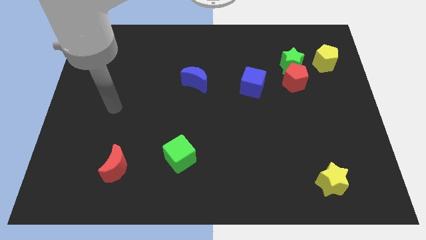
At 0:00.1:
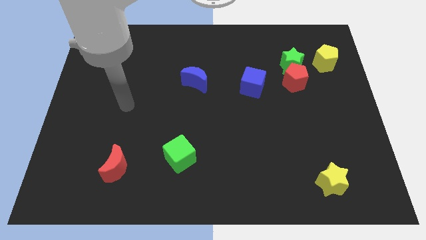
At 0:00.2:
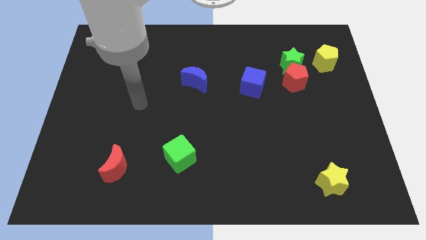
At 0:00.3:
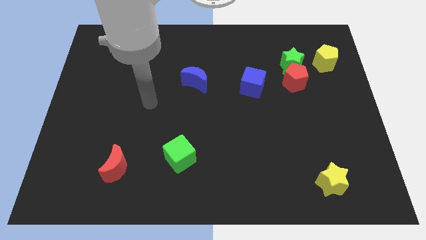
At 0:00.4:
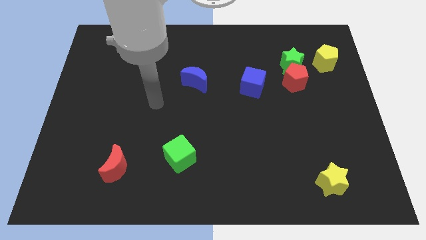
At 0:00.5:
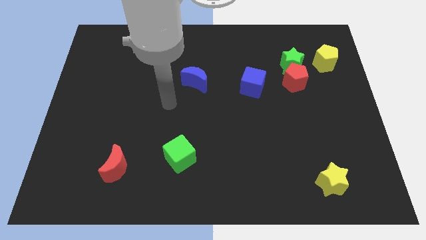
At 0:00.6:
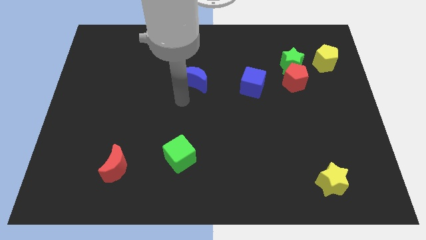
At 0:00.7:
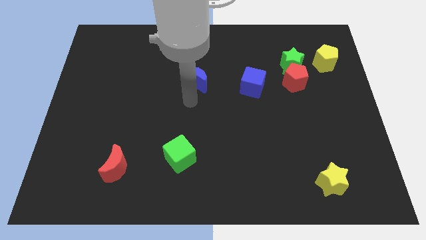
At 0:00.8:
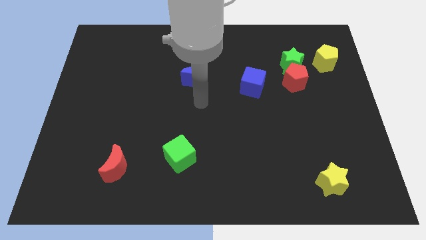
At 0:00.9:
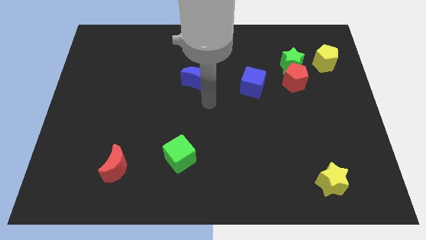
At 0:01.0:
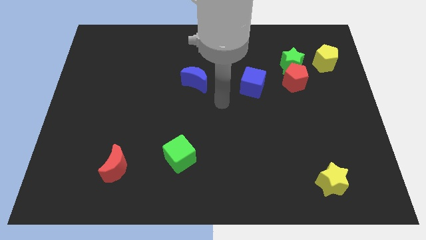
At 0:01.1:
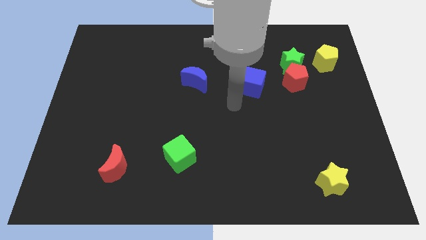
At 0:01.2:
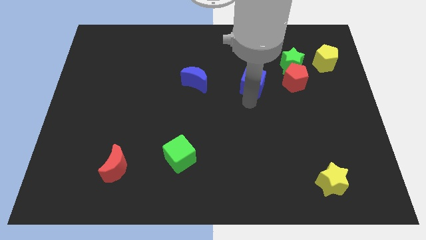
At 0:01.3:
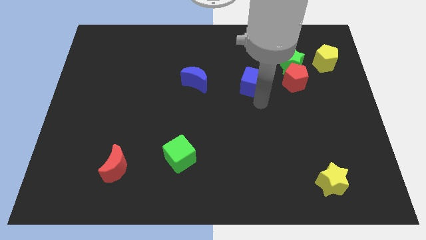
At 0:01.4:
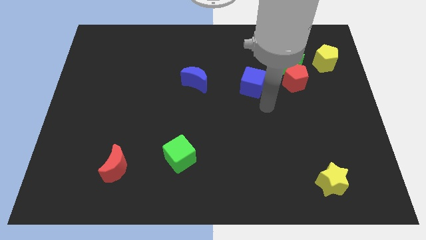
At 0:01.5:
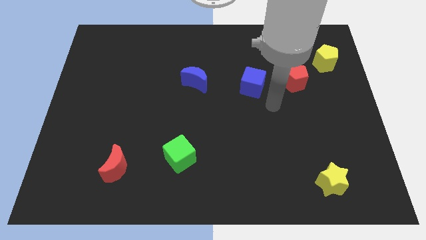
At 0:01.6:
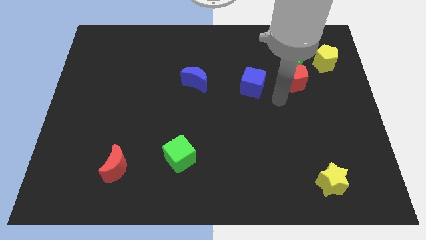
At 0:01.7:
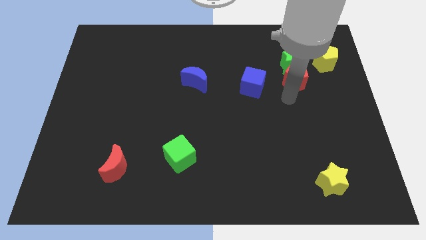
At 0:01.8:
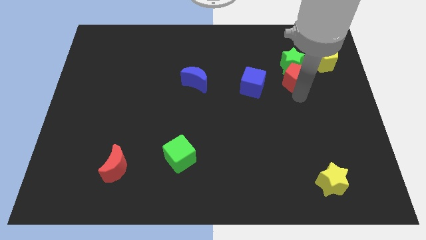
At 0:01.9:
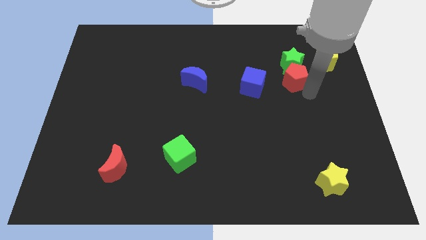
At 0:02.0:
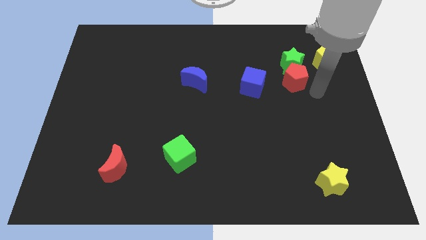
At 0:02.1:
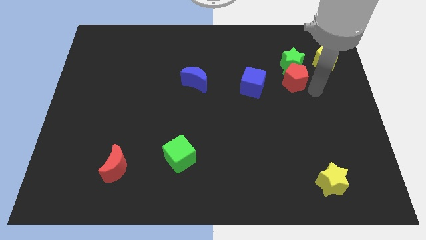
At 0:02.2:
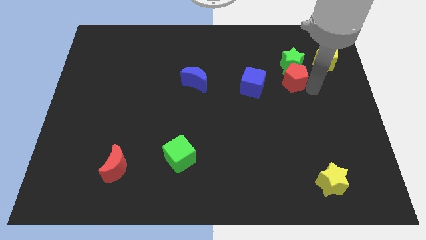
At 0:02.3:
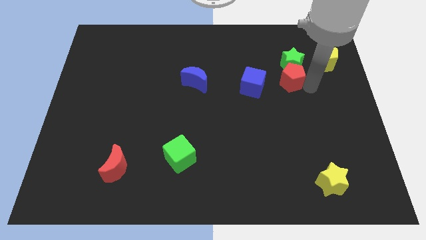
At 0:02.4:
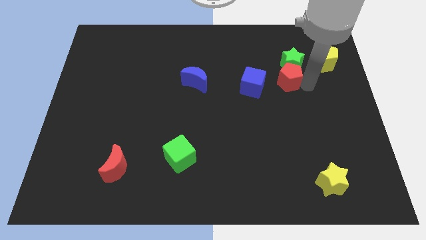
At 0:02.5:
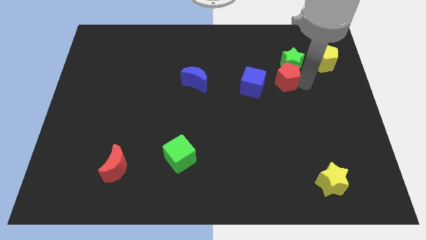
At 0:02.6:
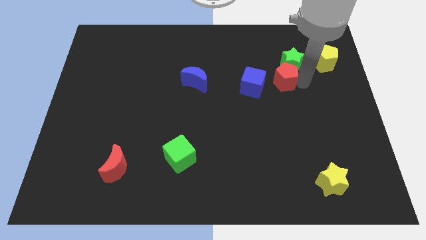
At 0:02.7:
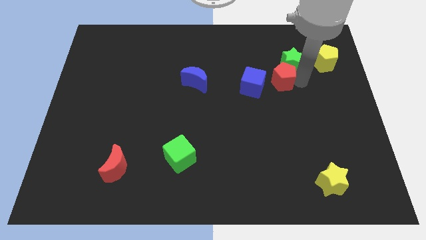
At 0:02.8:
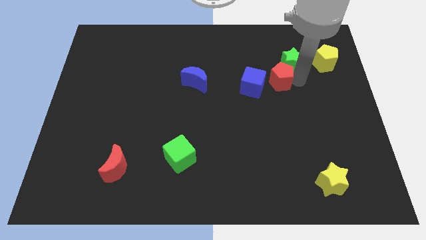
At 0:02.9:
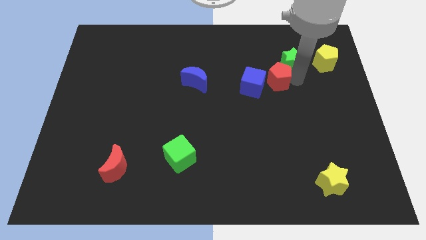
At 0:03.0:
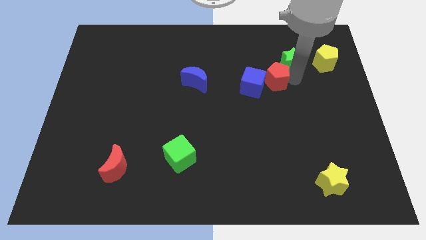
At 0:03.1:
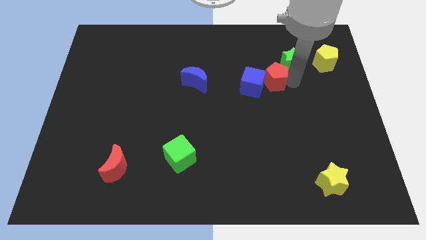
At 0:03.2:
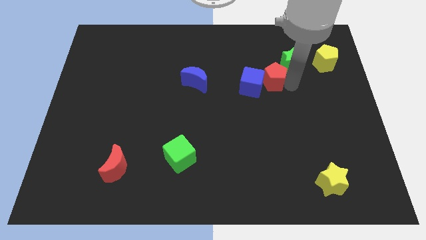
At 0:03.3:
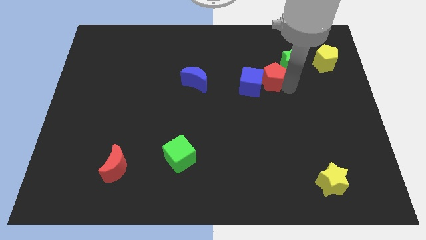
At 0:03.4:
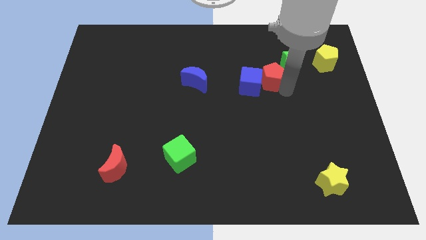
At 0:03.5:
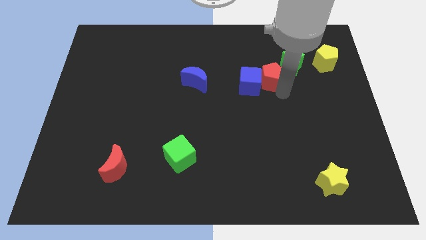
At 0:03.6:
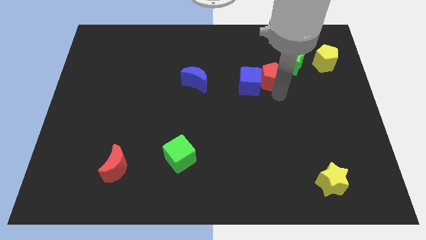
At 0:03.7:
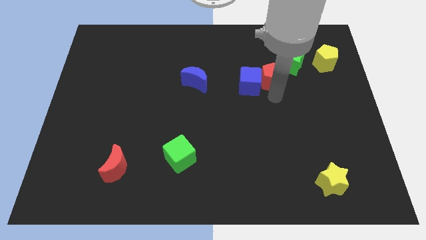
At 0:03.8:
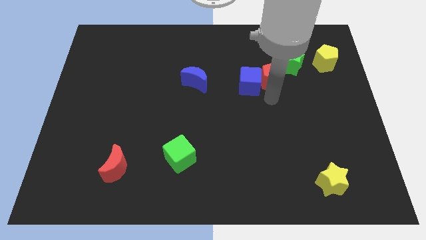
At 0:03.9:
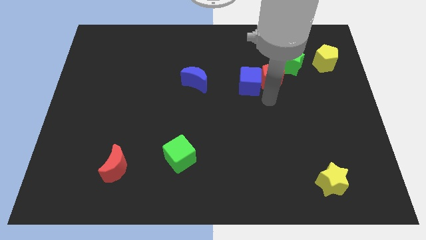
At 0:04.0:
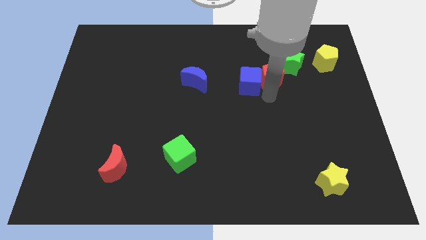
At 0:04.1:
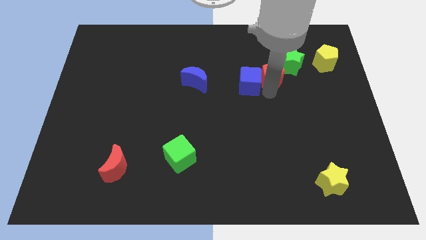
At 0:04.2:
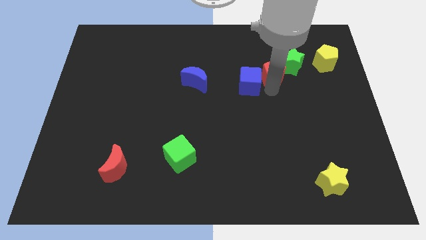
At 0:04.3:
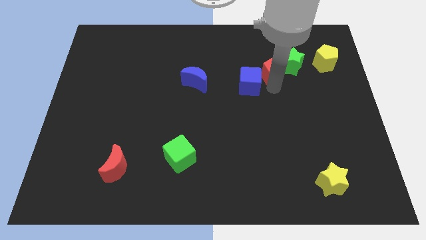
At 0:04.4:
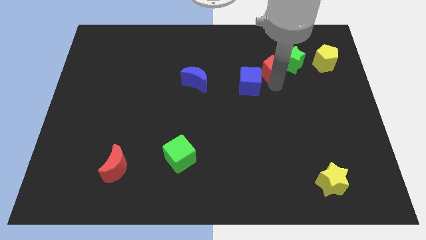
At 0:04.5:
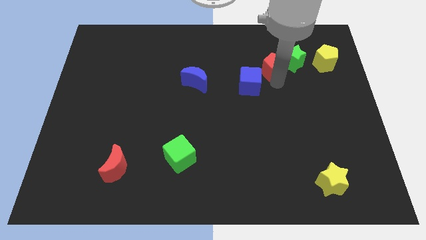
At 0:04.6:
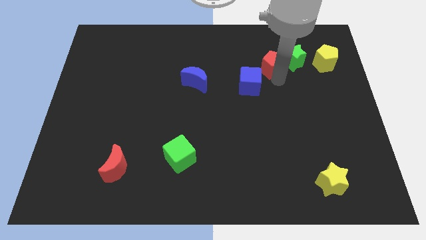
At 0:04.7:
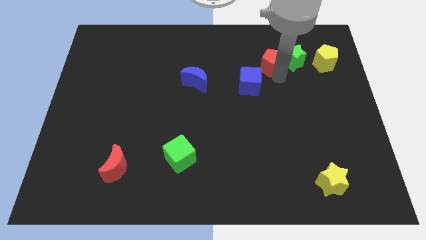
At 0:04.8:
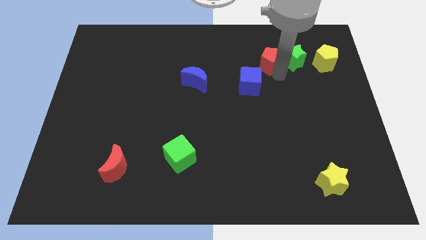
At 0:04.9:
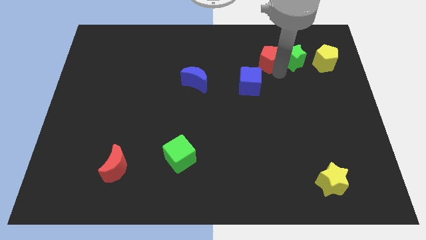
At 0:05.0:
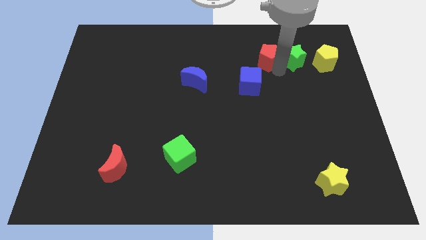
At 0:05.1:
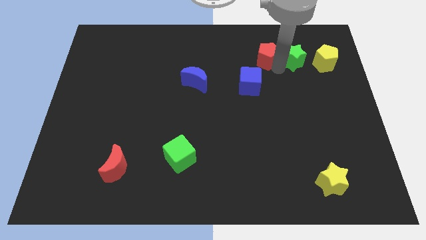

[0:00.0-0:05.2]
move the red pentagon to the top side of the blue cube

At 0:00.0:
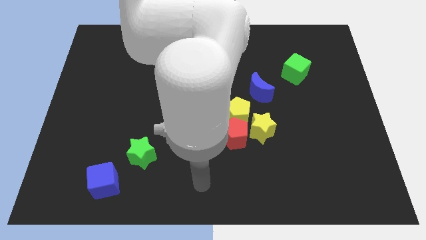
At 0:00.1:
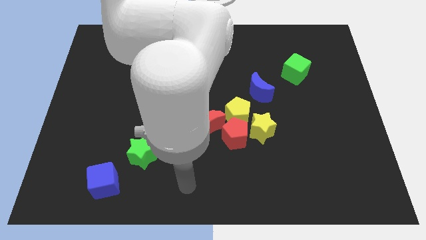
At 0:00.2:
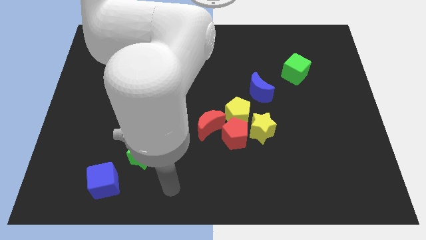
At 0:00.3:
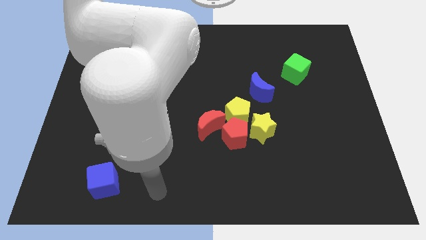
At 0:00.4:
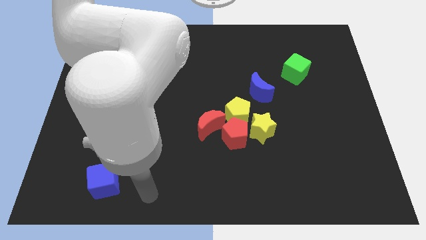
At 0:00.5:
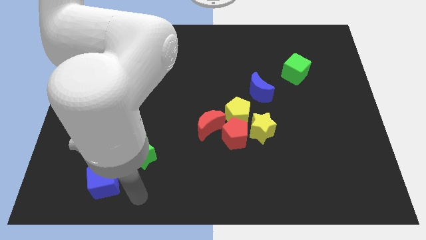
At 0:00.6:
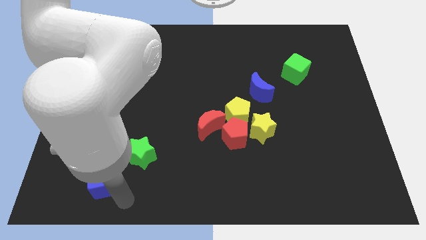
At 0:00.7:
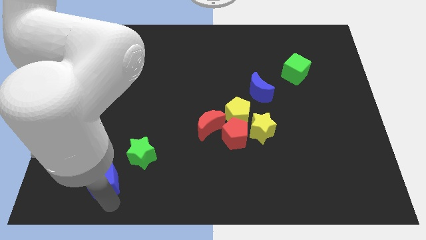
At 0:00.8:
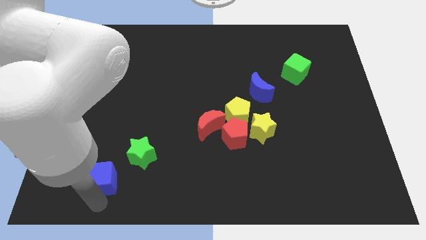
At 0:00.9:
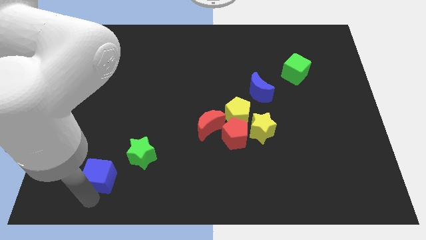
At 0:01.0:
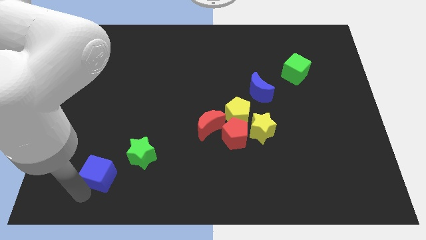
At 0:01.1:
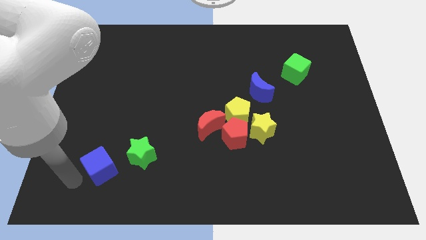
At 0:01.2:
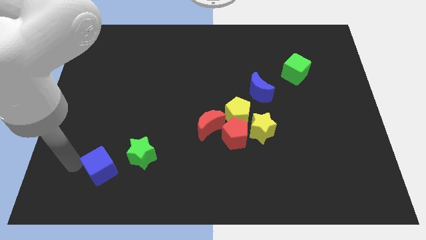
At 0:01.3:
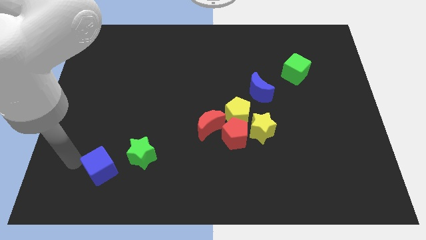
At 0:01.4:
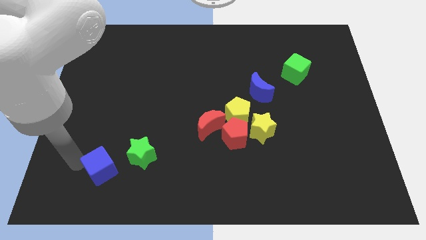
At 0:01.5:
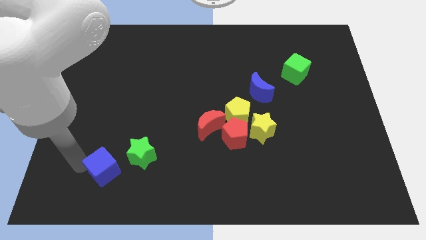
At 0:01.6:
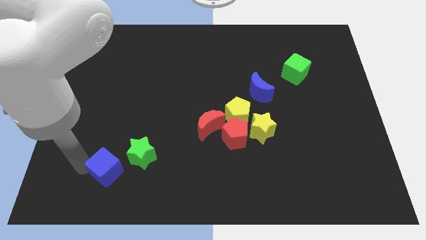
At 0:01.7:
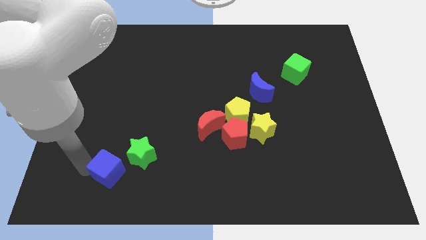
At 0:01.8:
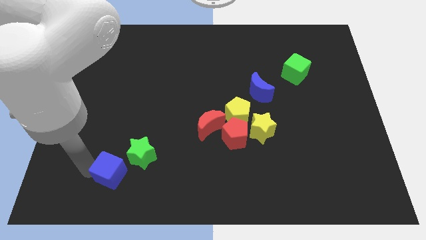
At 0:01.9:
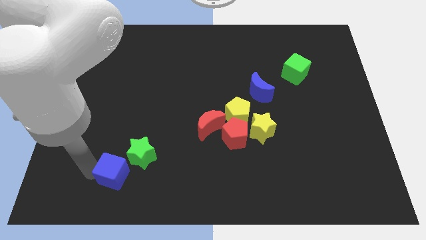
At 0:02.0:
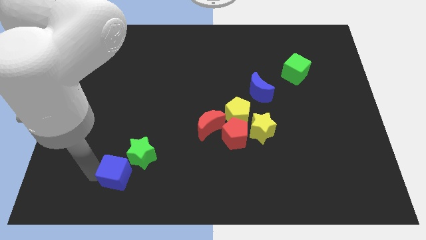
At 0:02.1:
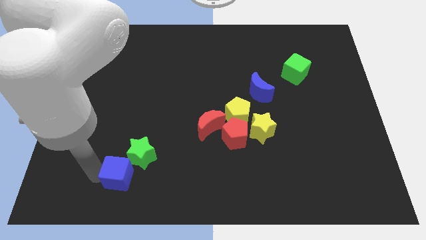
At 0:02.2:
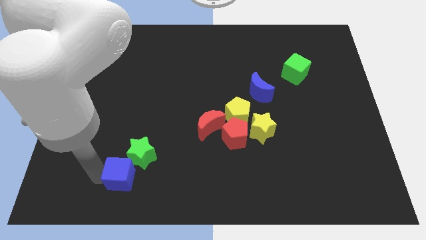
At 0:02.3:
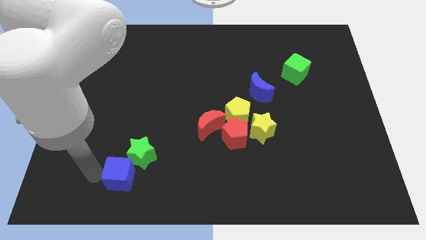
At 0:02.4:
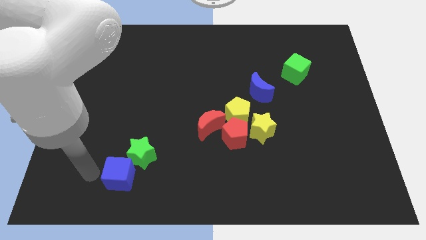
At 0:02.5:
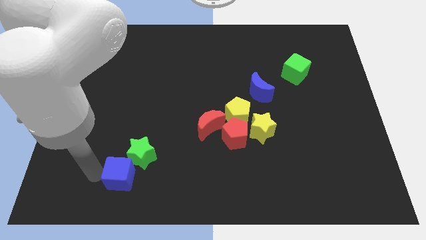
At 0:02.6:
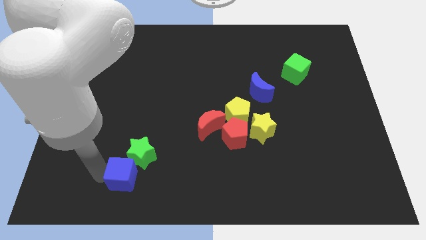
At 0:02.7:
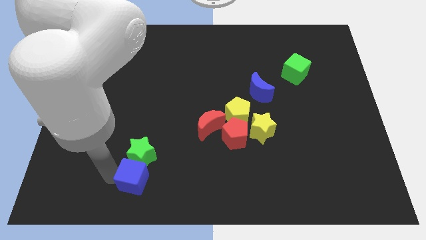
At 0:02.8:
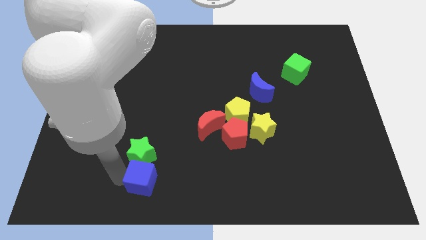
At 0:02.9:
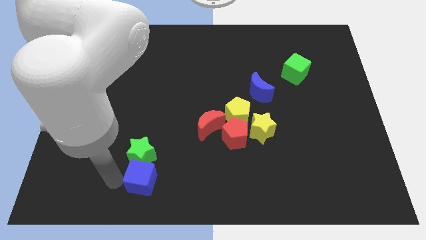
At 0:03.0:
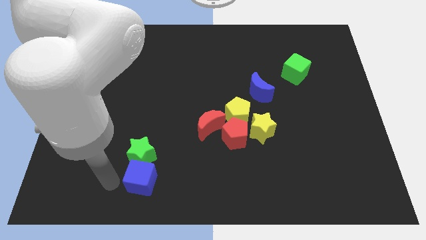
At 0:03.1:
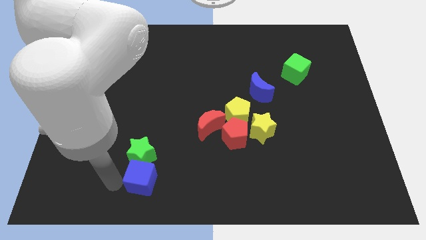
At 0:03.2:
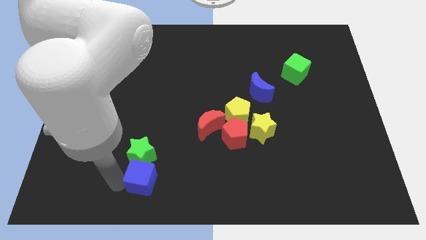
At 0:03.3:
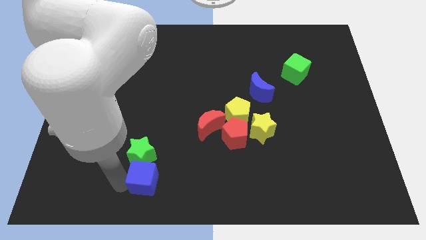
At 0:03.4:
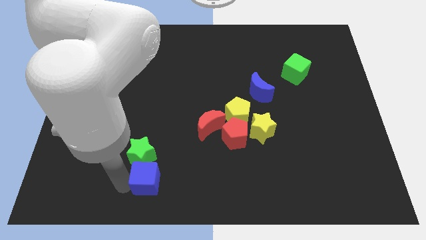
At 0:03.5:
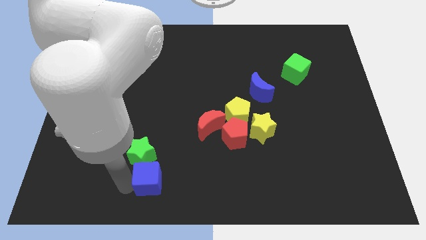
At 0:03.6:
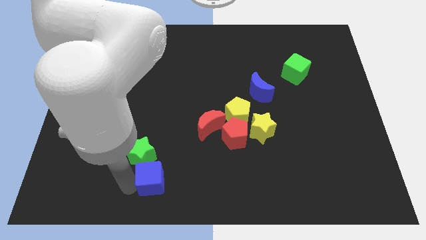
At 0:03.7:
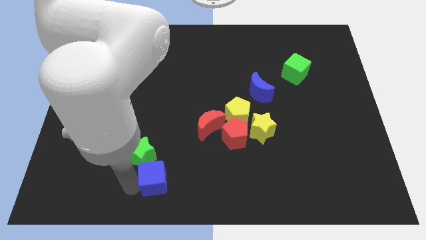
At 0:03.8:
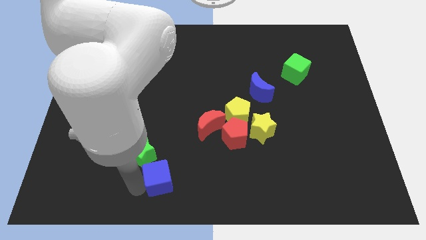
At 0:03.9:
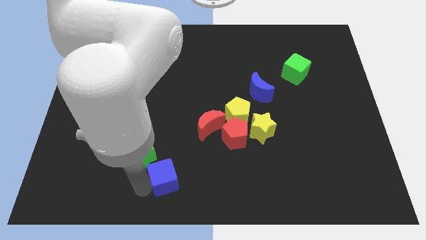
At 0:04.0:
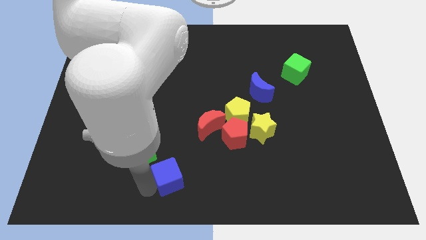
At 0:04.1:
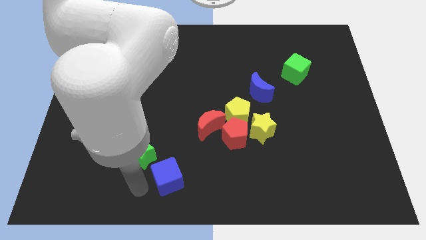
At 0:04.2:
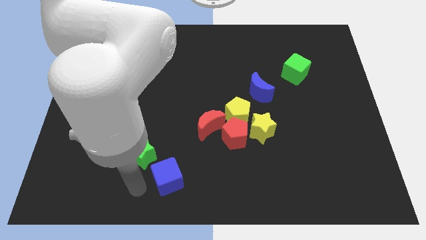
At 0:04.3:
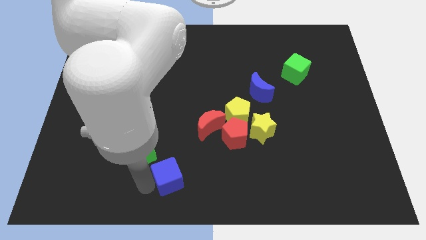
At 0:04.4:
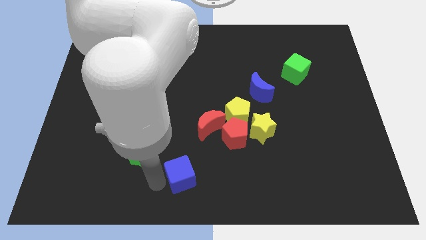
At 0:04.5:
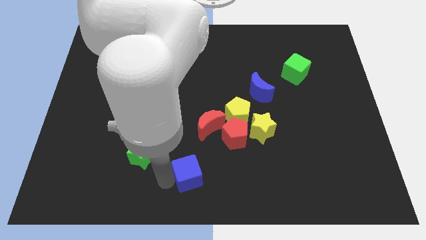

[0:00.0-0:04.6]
slide the blue cube below the red moon
